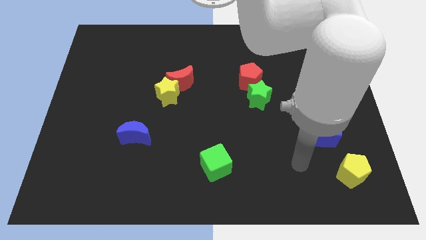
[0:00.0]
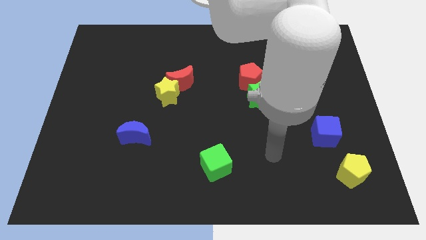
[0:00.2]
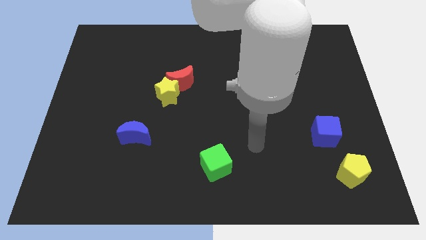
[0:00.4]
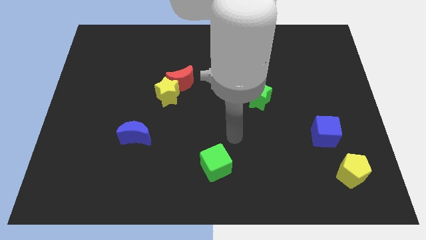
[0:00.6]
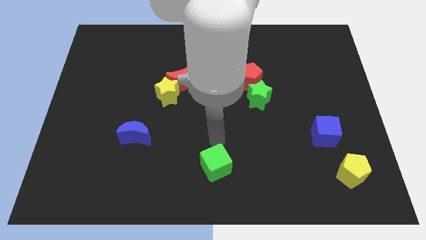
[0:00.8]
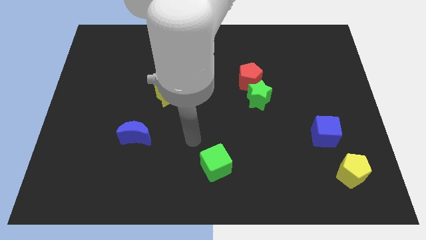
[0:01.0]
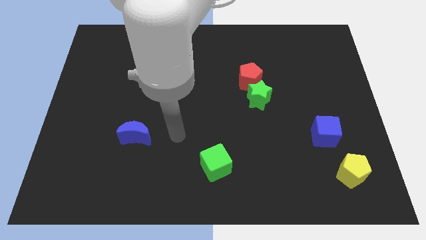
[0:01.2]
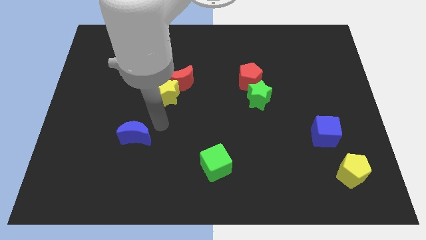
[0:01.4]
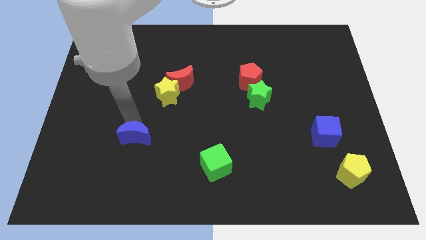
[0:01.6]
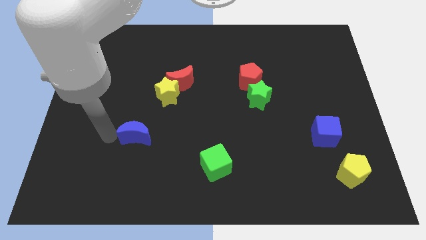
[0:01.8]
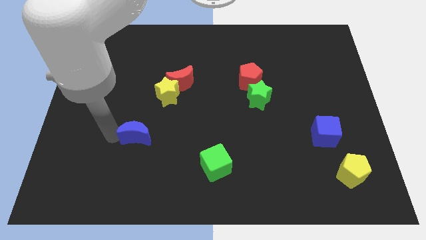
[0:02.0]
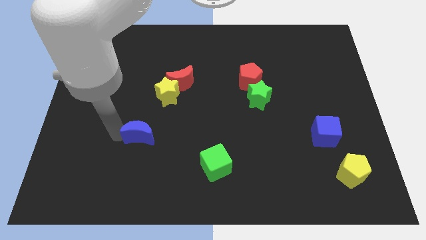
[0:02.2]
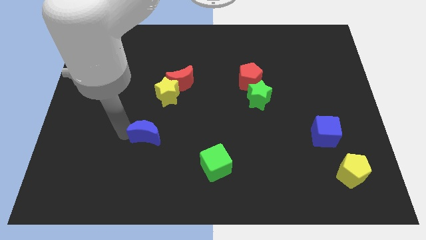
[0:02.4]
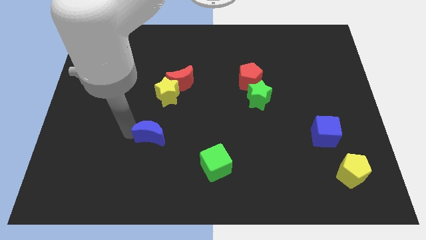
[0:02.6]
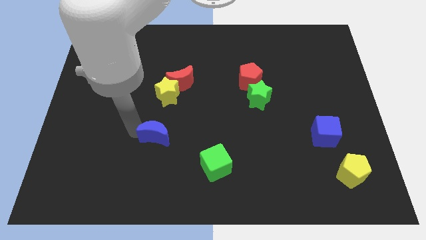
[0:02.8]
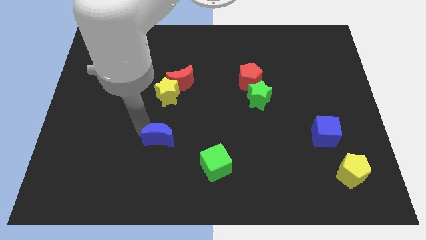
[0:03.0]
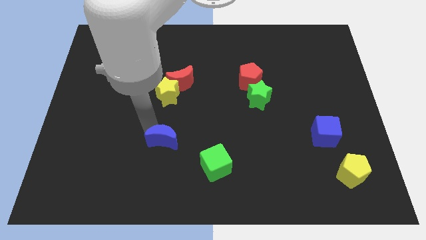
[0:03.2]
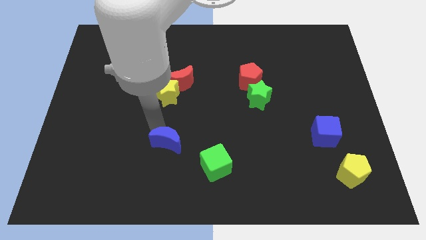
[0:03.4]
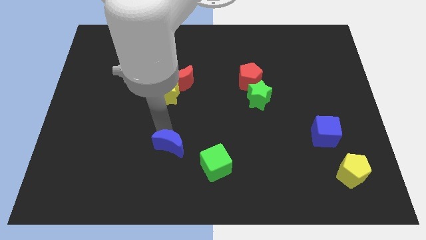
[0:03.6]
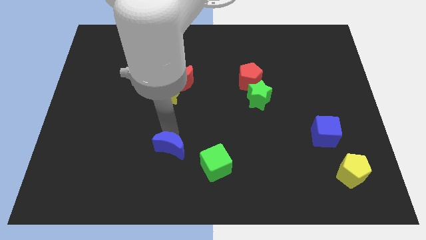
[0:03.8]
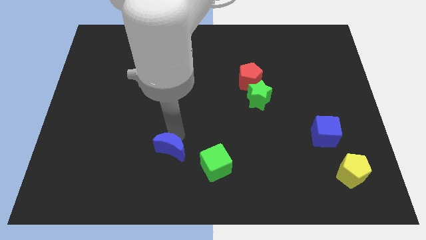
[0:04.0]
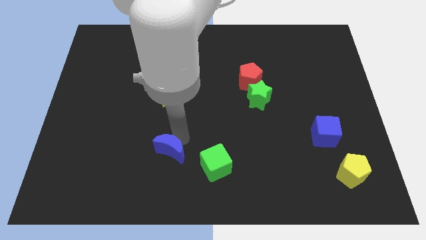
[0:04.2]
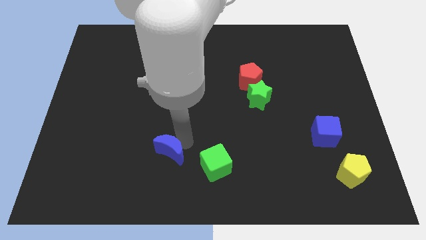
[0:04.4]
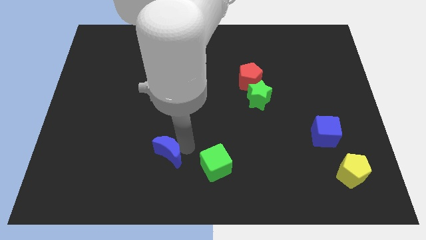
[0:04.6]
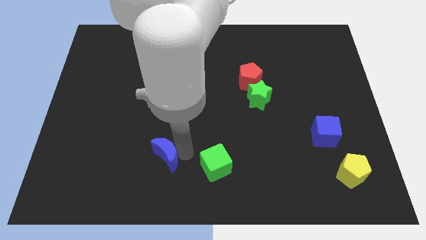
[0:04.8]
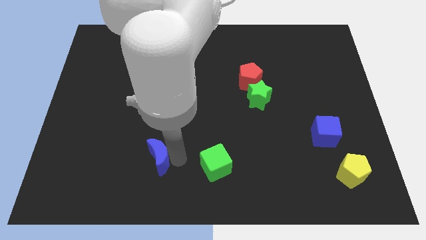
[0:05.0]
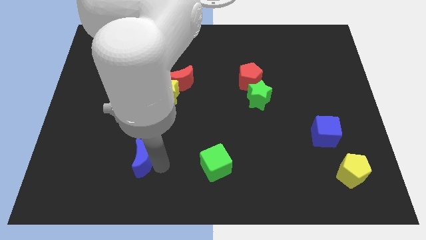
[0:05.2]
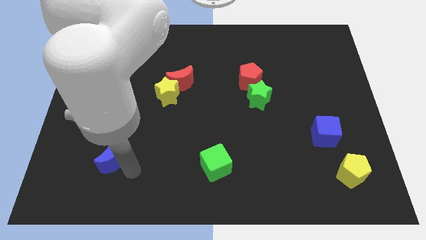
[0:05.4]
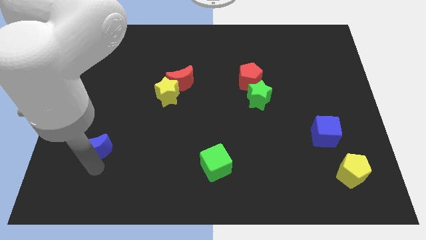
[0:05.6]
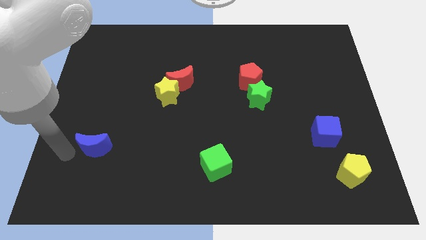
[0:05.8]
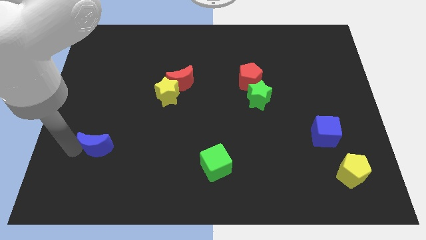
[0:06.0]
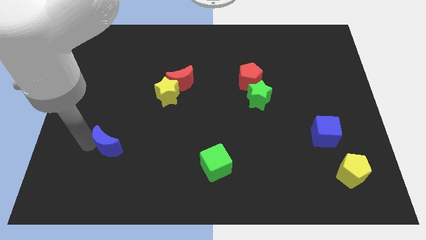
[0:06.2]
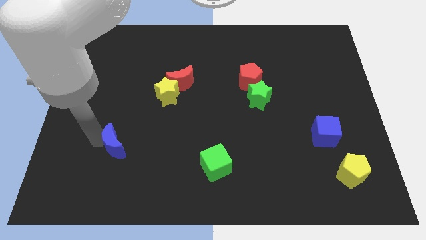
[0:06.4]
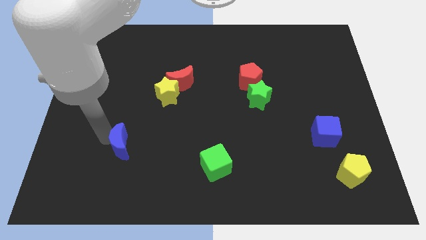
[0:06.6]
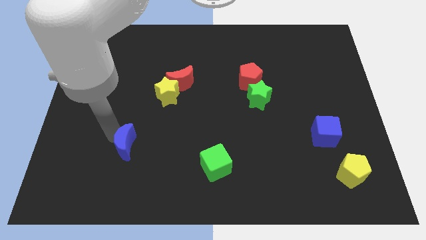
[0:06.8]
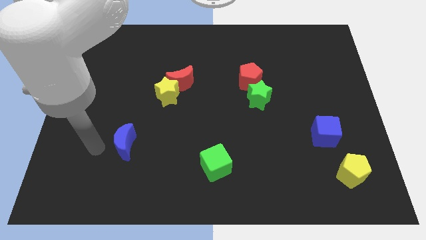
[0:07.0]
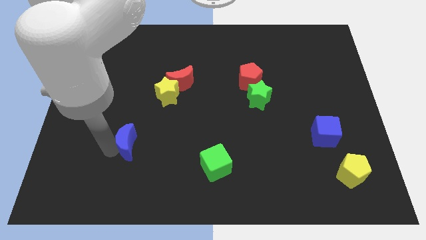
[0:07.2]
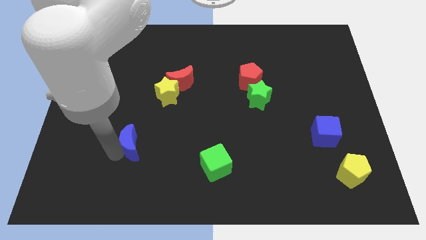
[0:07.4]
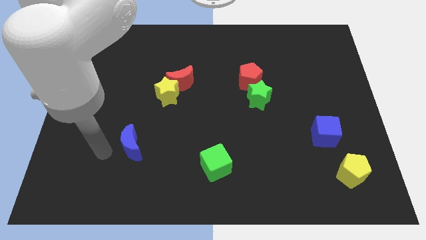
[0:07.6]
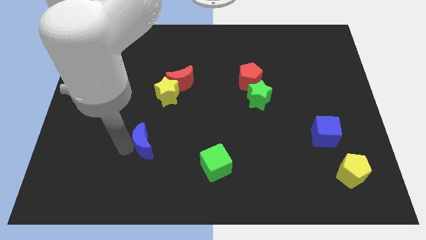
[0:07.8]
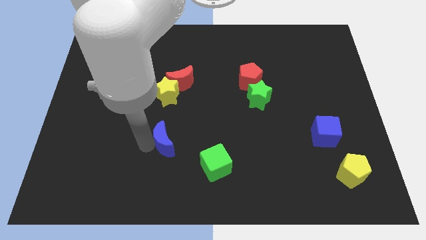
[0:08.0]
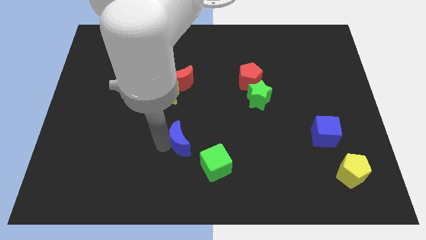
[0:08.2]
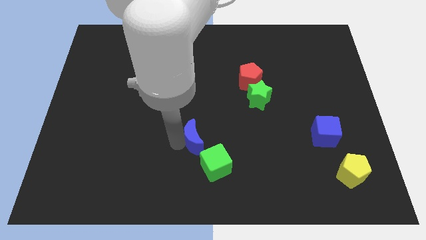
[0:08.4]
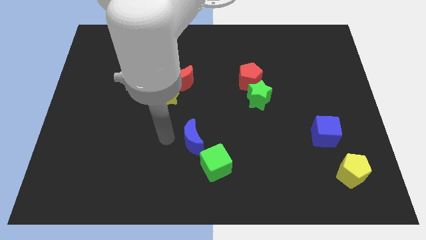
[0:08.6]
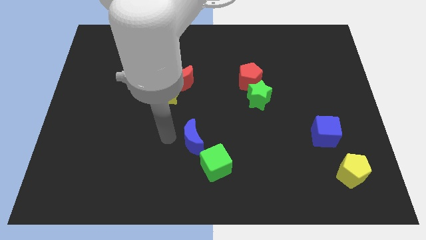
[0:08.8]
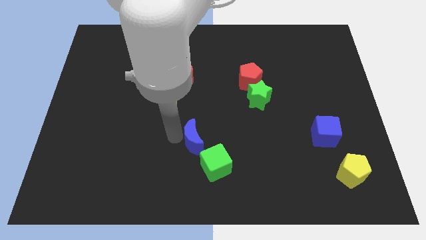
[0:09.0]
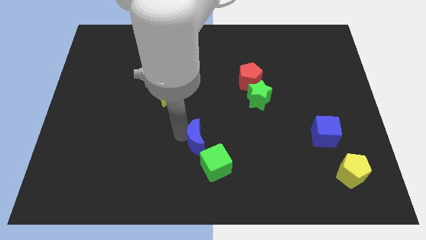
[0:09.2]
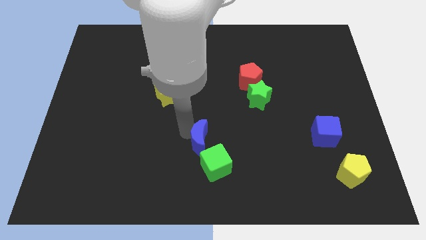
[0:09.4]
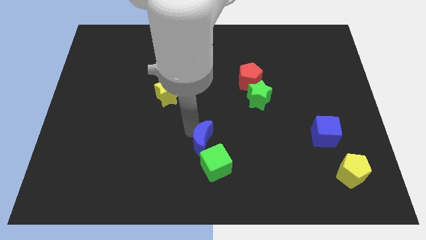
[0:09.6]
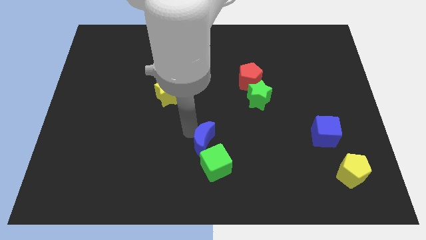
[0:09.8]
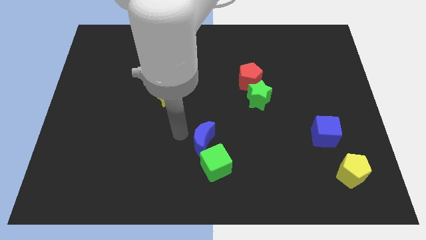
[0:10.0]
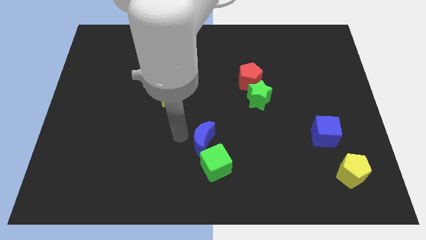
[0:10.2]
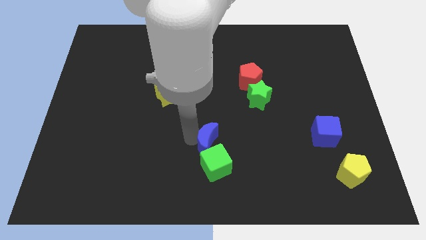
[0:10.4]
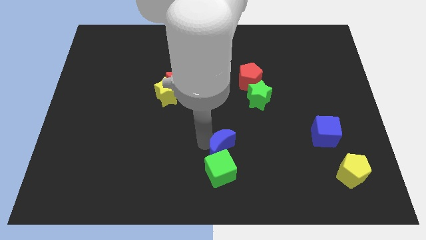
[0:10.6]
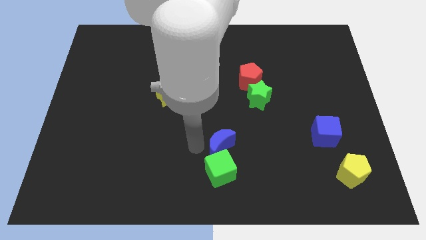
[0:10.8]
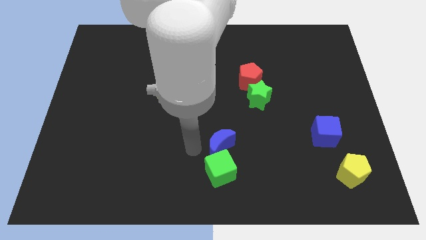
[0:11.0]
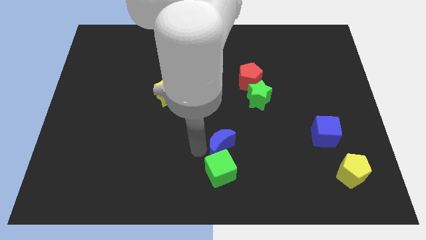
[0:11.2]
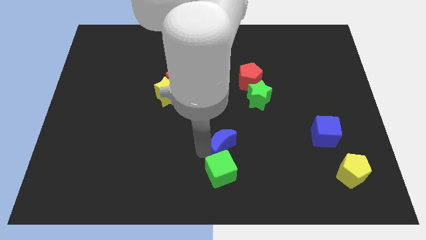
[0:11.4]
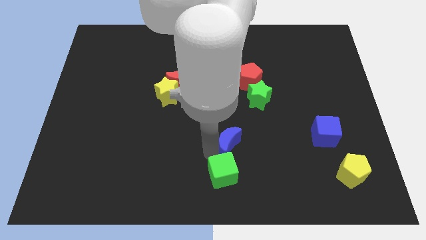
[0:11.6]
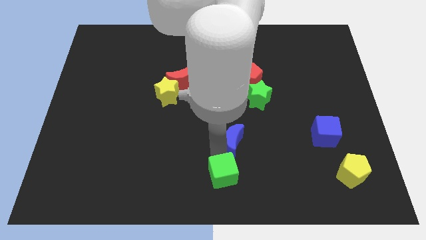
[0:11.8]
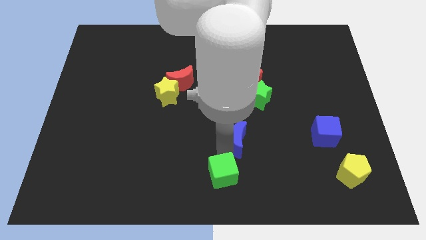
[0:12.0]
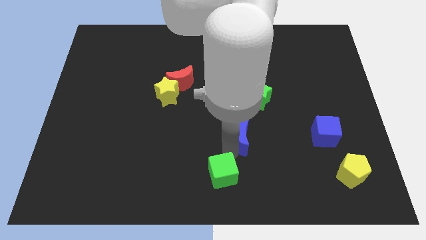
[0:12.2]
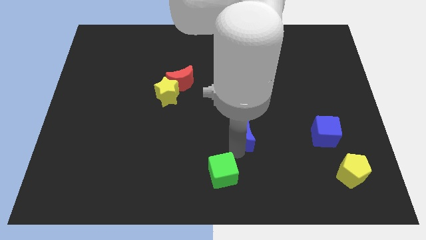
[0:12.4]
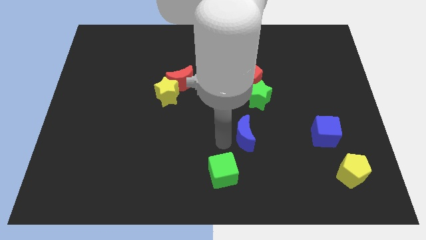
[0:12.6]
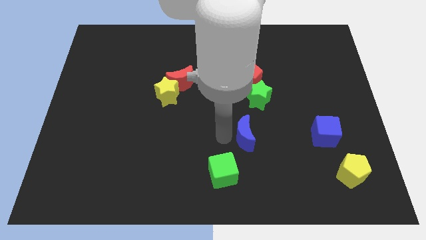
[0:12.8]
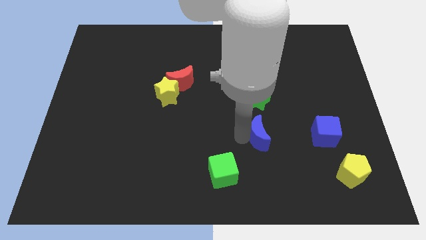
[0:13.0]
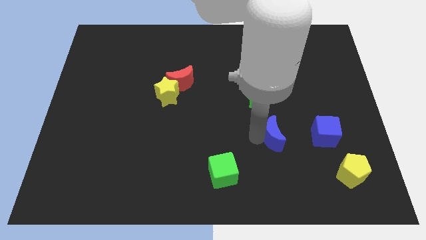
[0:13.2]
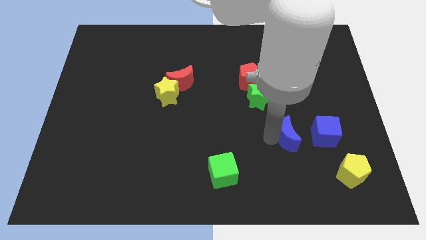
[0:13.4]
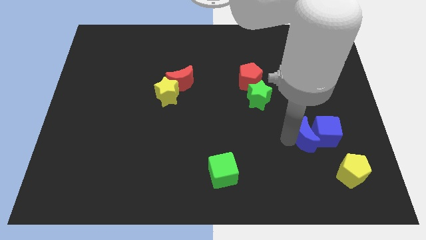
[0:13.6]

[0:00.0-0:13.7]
slide the blue moon close to the blue cube

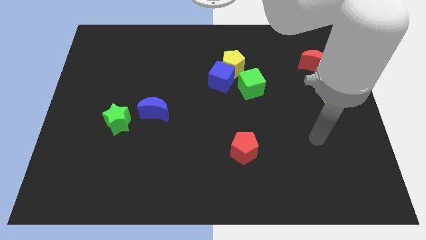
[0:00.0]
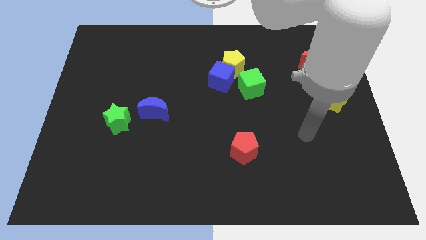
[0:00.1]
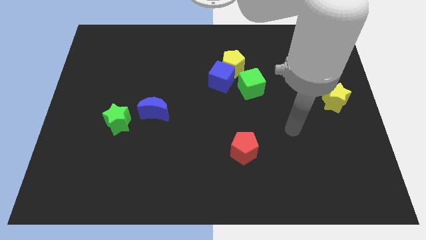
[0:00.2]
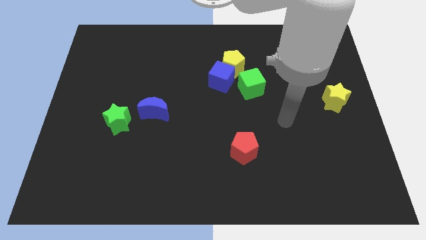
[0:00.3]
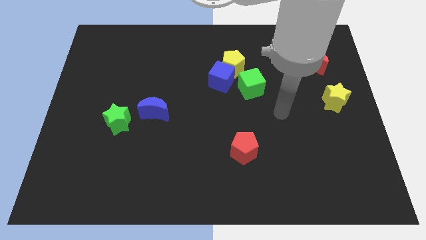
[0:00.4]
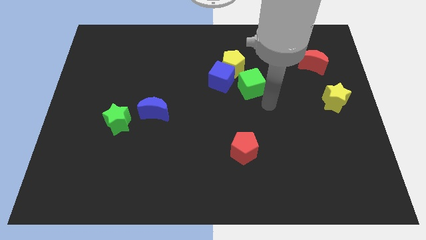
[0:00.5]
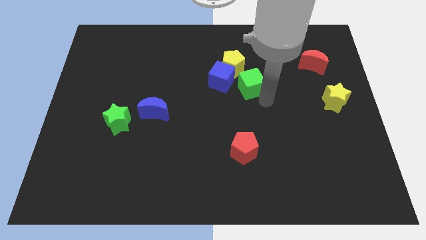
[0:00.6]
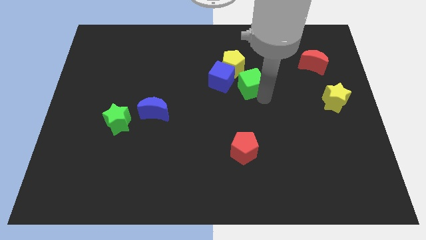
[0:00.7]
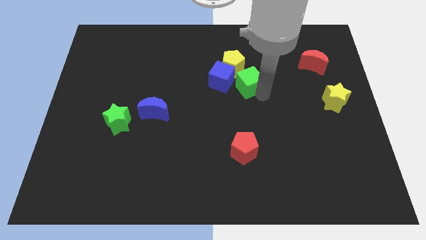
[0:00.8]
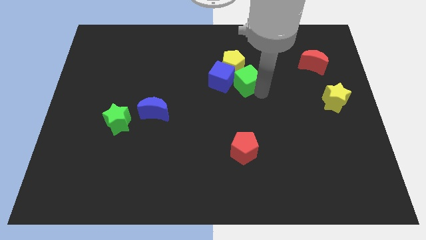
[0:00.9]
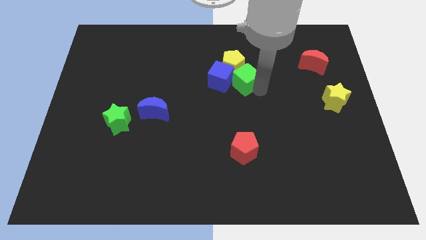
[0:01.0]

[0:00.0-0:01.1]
put the green cube towards the yellow pentagon
